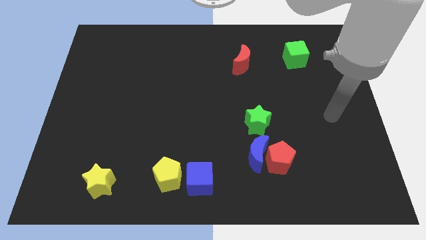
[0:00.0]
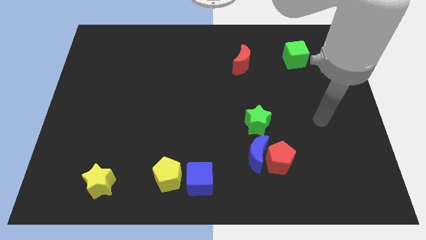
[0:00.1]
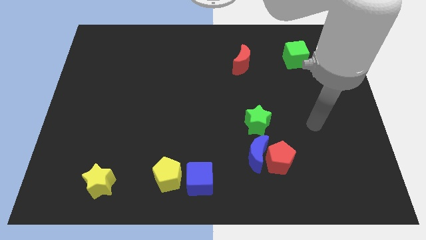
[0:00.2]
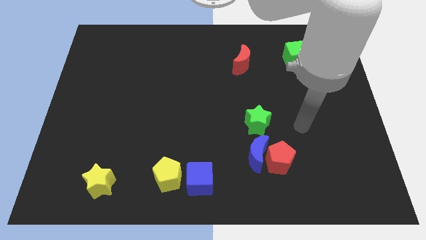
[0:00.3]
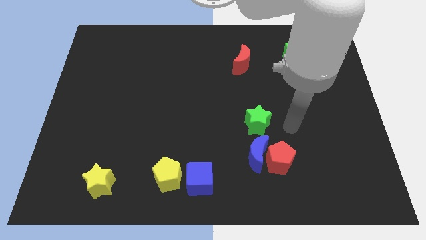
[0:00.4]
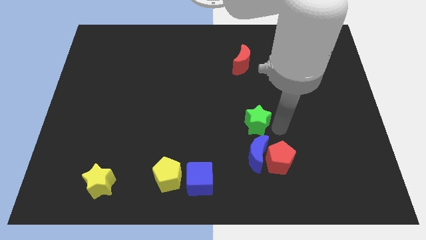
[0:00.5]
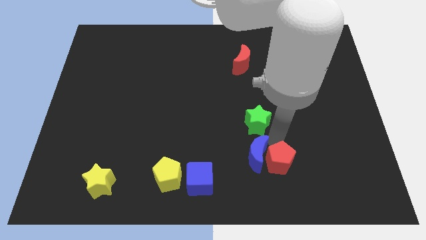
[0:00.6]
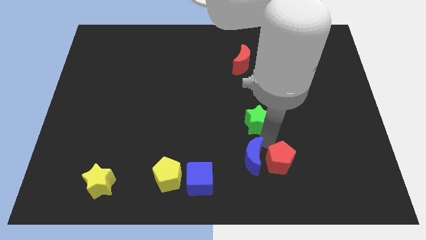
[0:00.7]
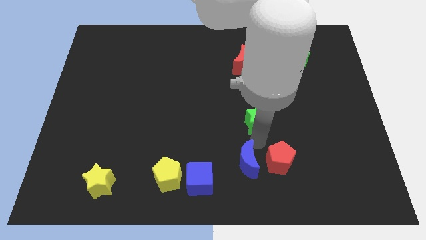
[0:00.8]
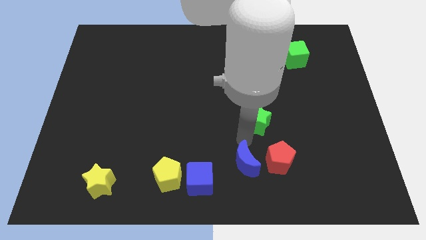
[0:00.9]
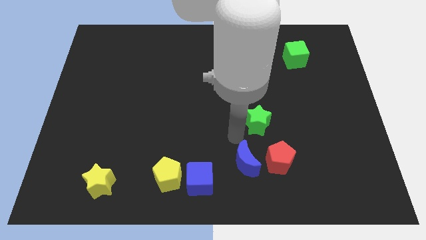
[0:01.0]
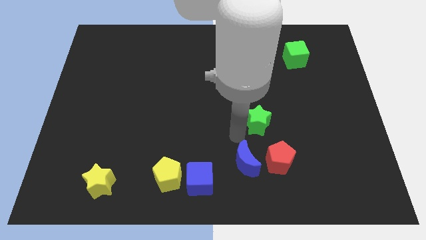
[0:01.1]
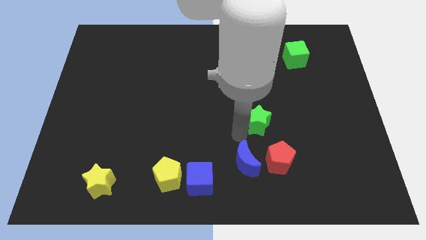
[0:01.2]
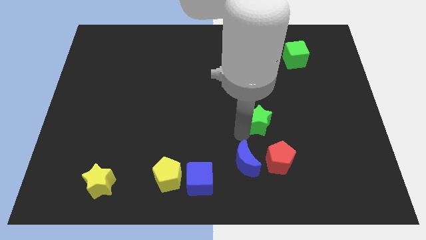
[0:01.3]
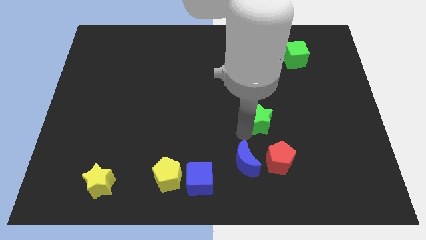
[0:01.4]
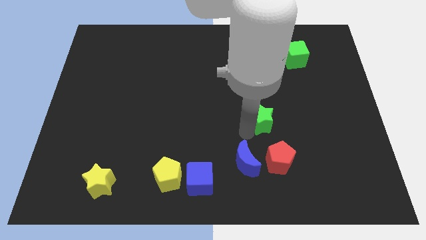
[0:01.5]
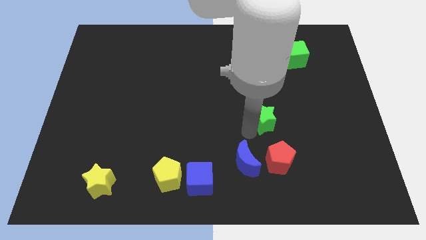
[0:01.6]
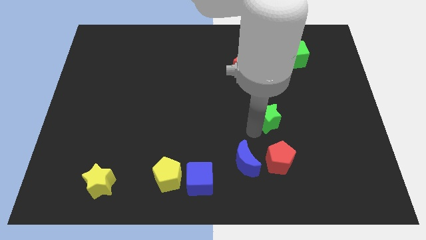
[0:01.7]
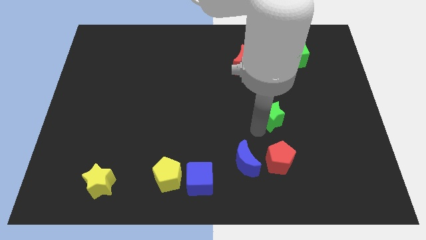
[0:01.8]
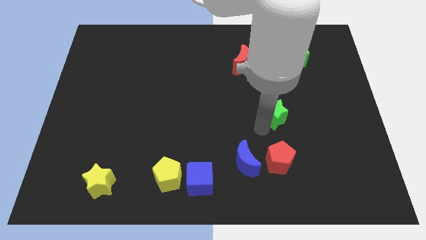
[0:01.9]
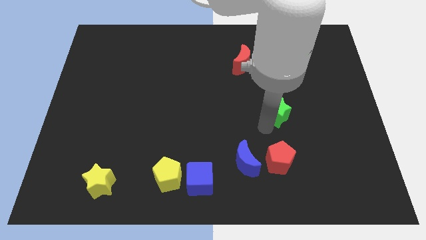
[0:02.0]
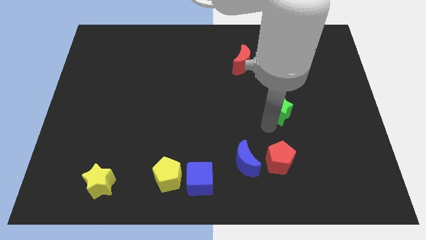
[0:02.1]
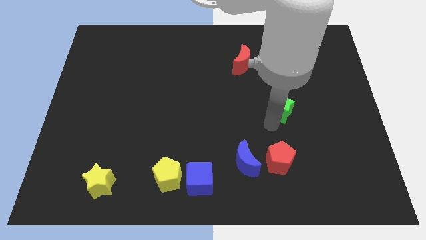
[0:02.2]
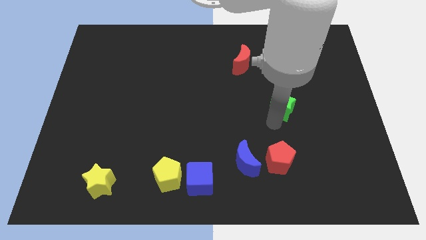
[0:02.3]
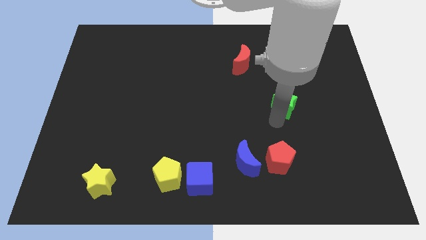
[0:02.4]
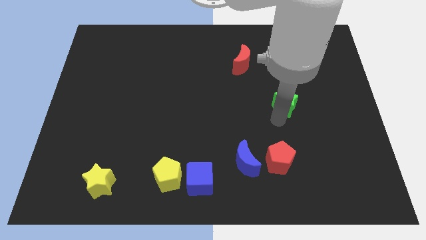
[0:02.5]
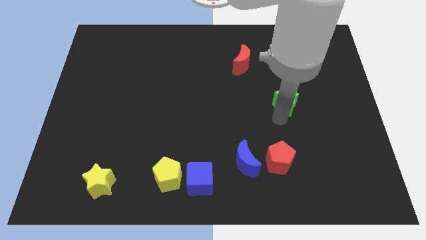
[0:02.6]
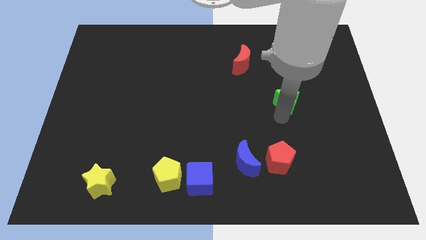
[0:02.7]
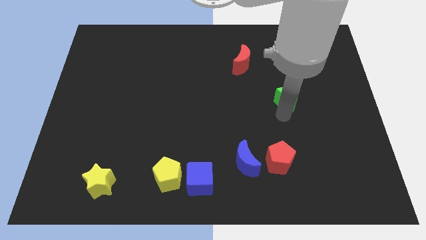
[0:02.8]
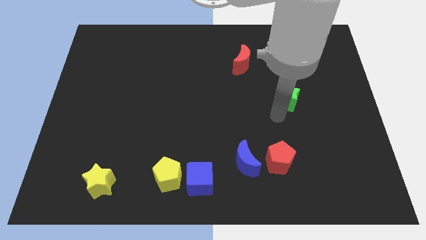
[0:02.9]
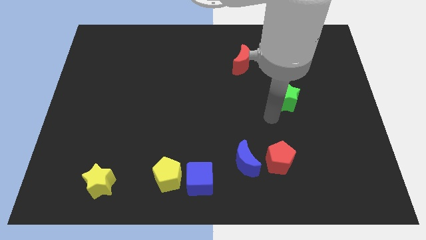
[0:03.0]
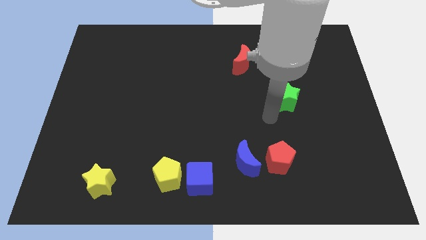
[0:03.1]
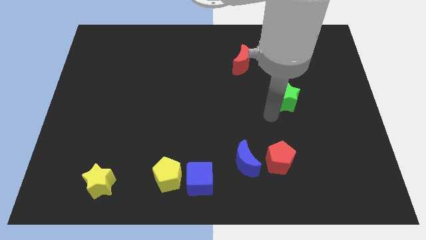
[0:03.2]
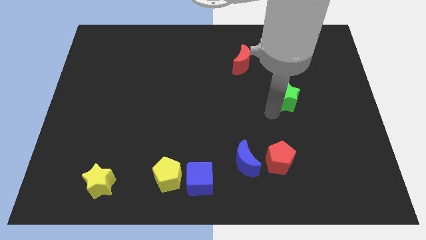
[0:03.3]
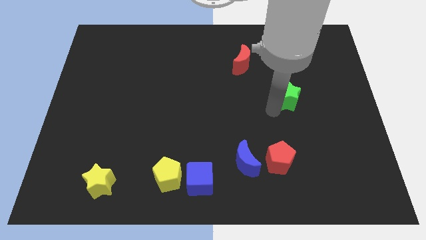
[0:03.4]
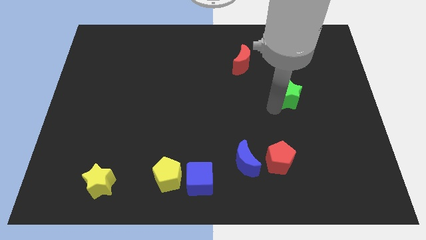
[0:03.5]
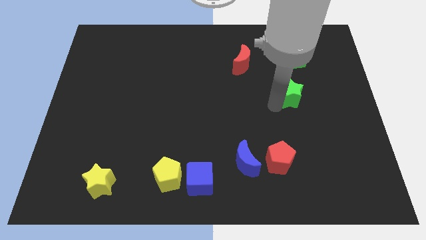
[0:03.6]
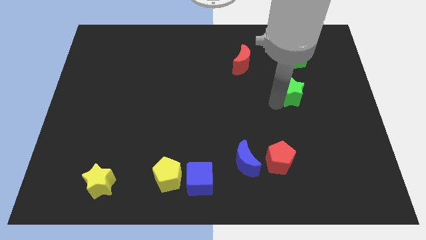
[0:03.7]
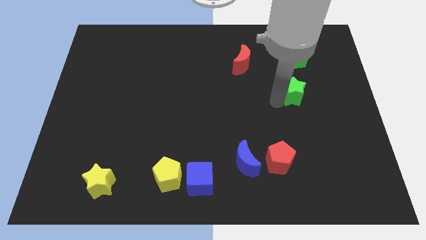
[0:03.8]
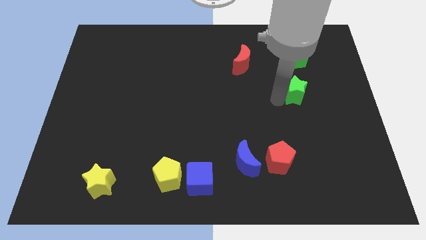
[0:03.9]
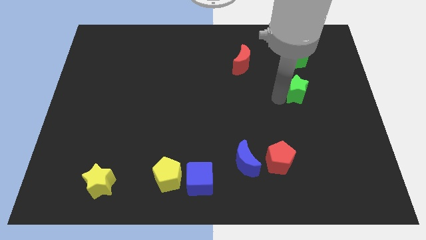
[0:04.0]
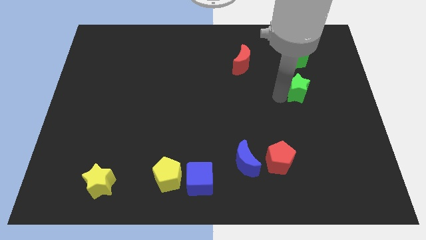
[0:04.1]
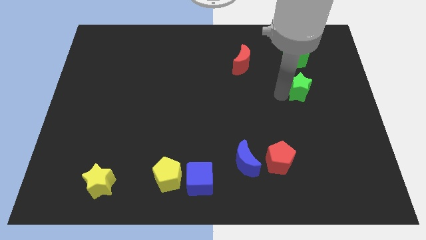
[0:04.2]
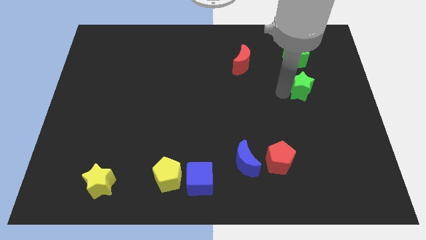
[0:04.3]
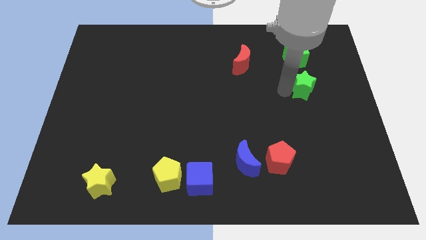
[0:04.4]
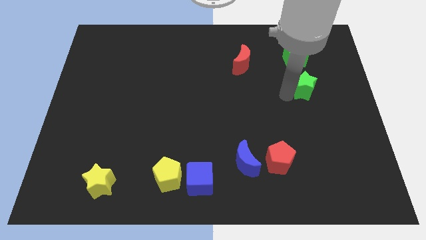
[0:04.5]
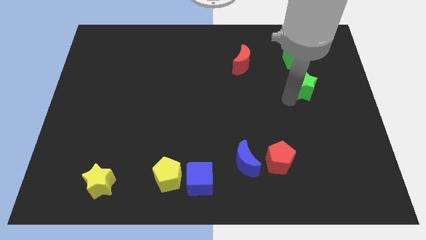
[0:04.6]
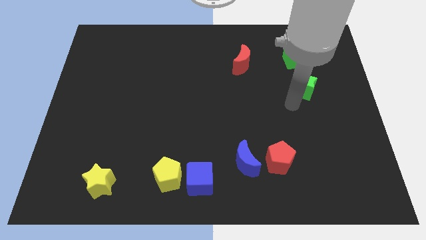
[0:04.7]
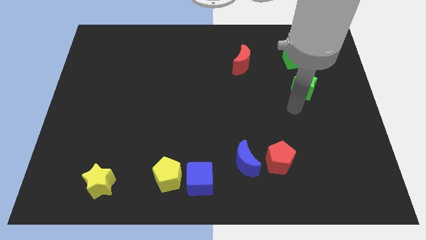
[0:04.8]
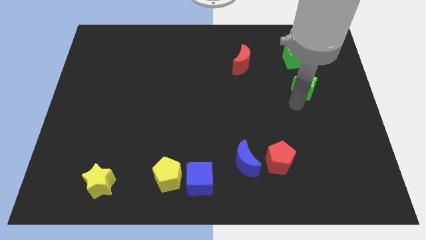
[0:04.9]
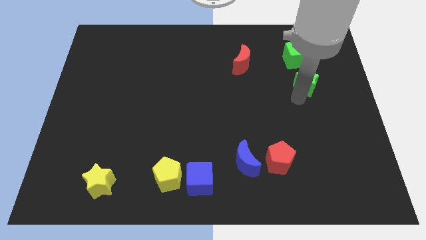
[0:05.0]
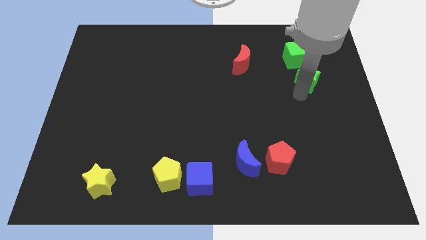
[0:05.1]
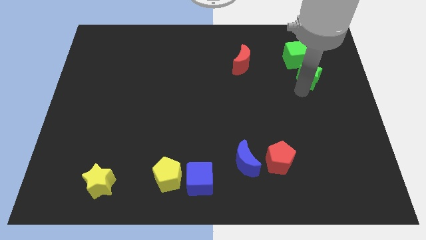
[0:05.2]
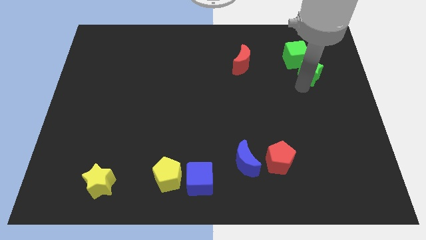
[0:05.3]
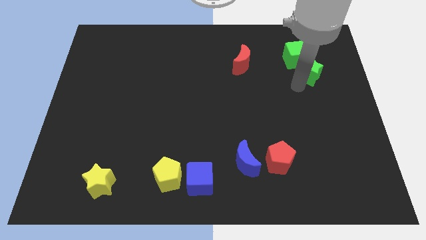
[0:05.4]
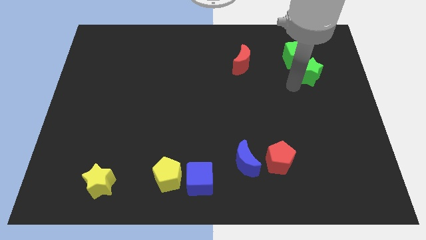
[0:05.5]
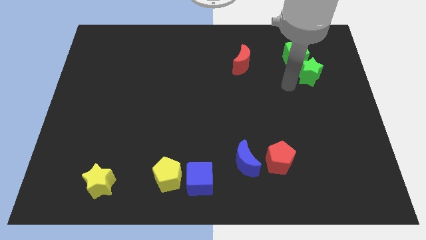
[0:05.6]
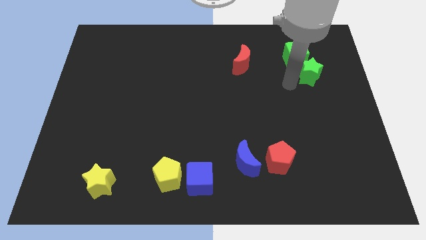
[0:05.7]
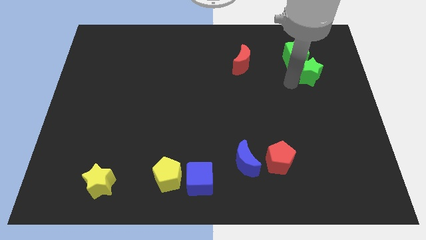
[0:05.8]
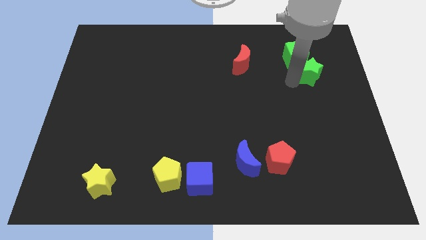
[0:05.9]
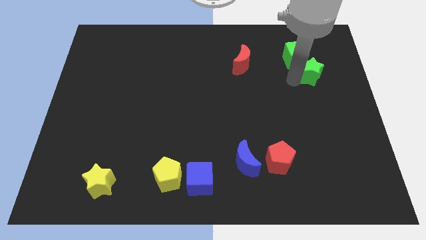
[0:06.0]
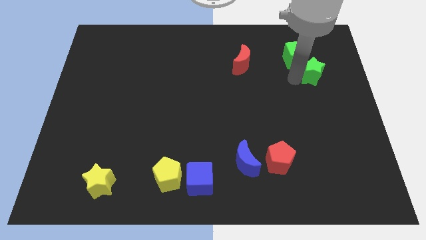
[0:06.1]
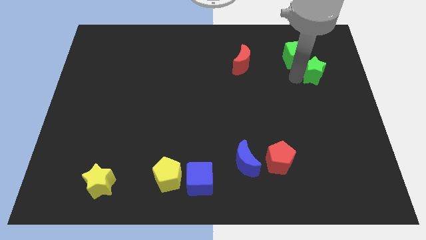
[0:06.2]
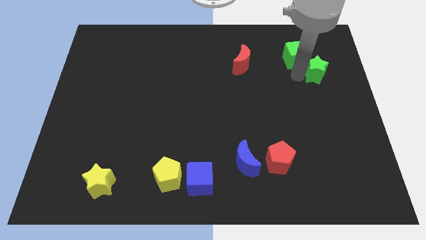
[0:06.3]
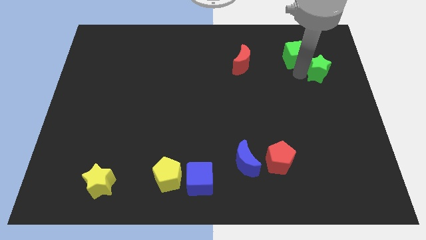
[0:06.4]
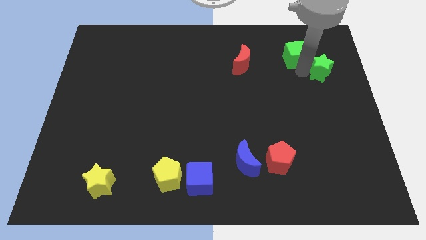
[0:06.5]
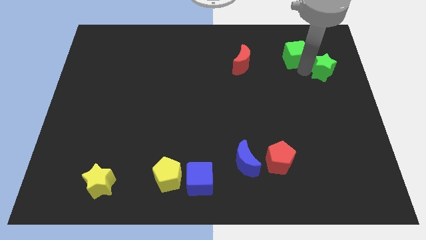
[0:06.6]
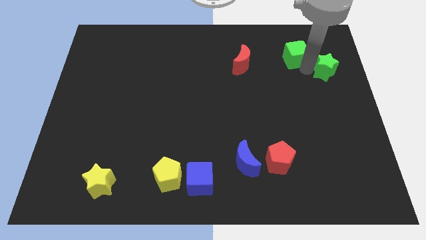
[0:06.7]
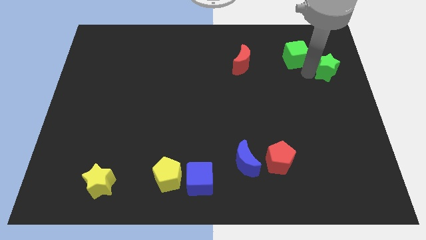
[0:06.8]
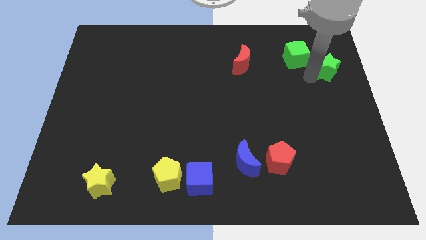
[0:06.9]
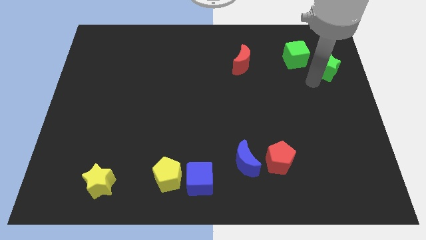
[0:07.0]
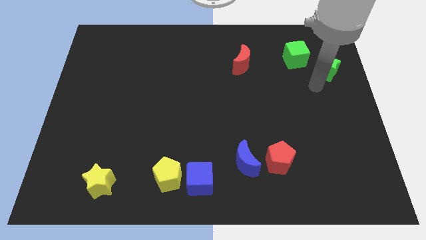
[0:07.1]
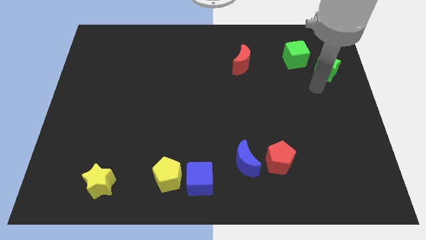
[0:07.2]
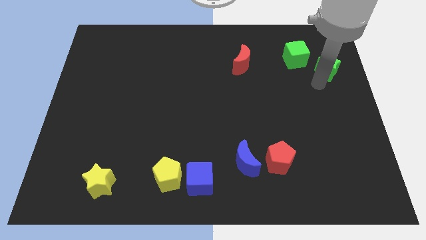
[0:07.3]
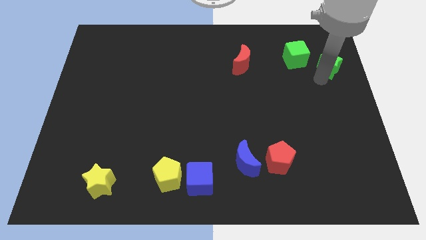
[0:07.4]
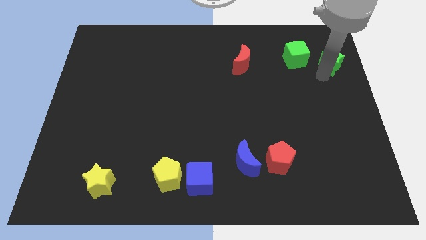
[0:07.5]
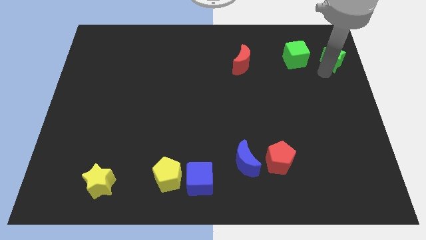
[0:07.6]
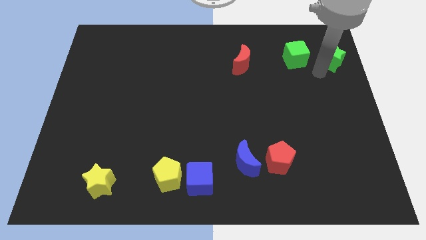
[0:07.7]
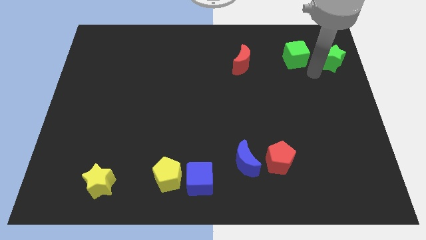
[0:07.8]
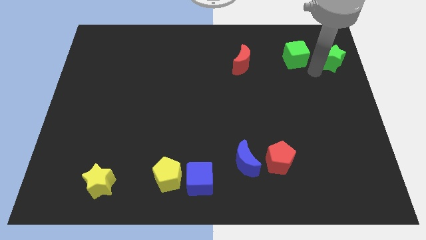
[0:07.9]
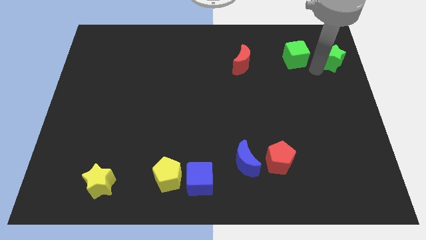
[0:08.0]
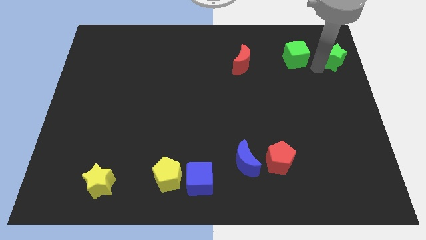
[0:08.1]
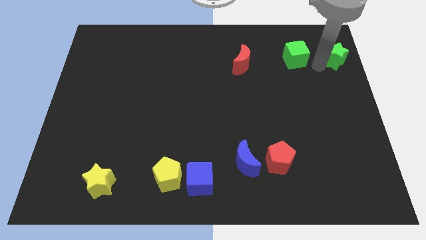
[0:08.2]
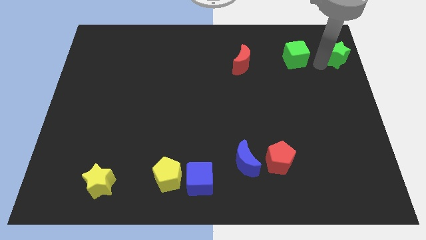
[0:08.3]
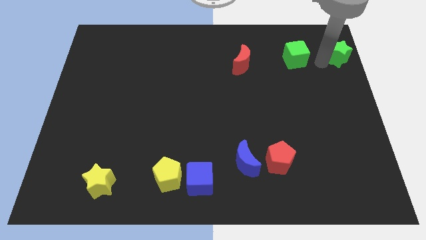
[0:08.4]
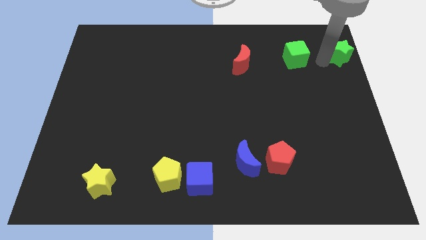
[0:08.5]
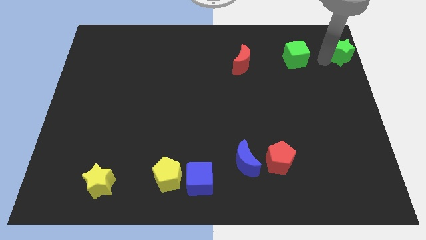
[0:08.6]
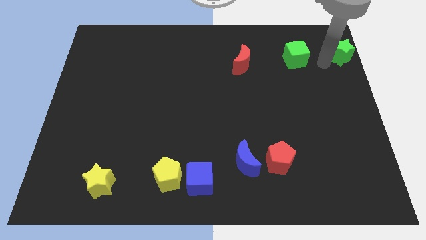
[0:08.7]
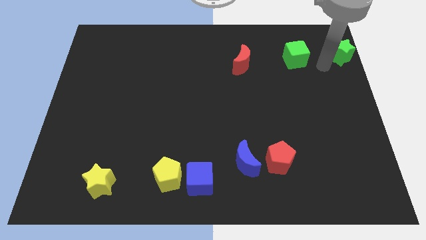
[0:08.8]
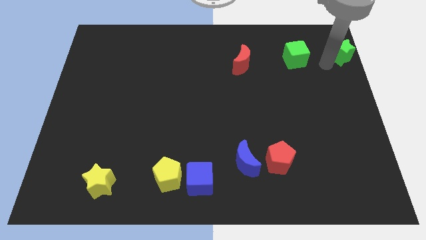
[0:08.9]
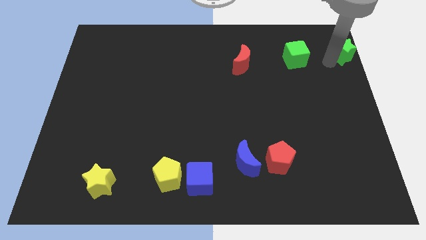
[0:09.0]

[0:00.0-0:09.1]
move the green star to the upper right corner
